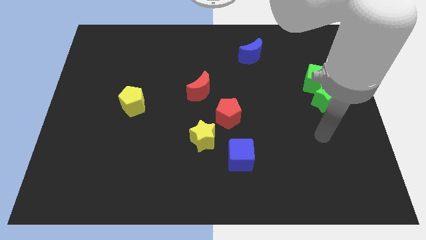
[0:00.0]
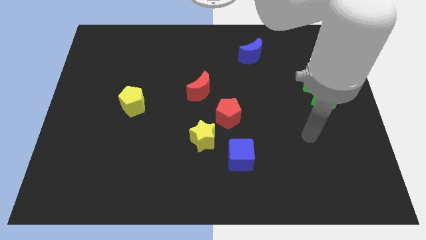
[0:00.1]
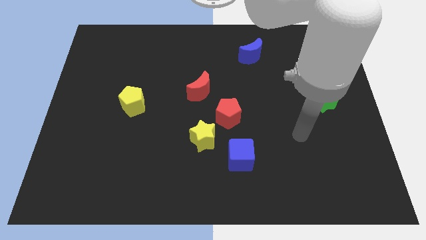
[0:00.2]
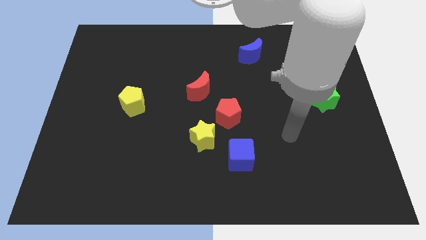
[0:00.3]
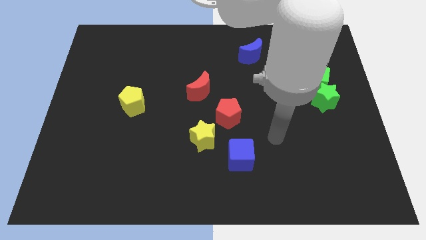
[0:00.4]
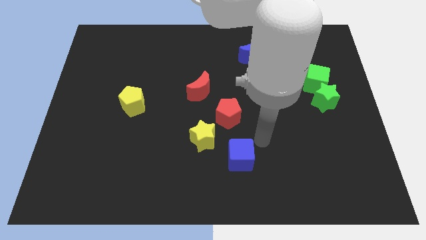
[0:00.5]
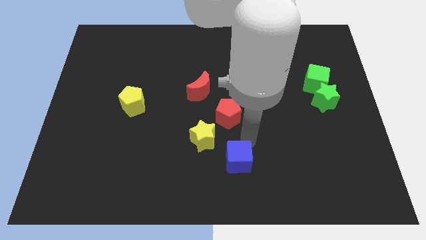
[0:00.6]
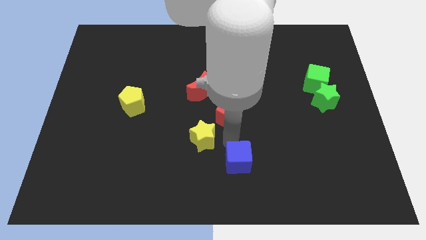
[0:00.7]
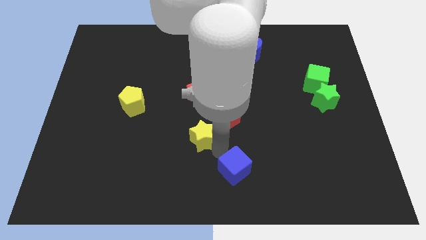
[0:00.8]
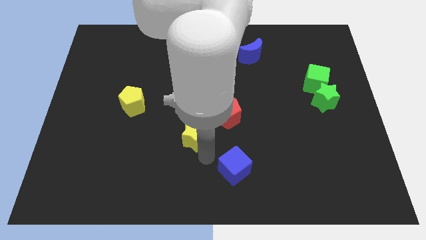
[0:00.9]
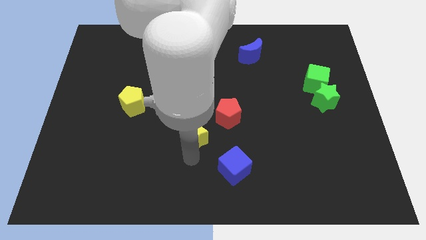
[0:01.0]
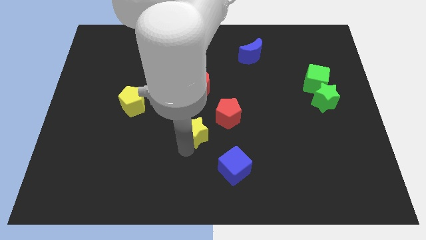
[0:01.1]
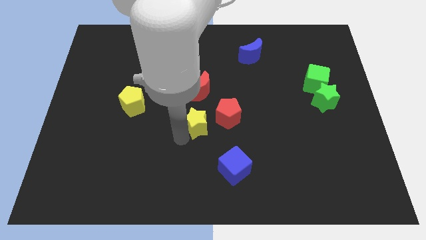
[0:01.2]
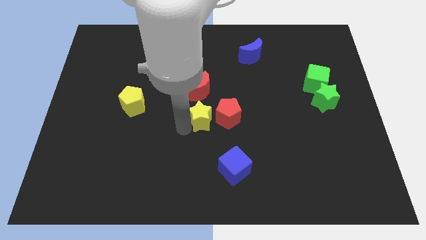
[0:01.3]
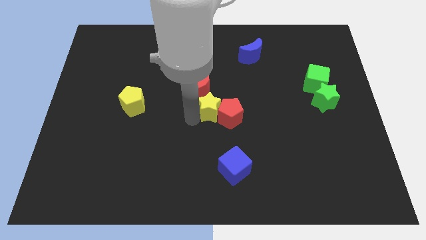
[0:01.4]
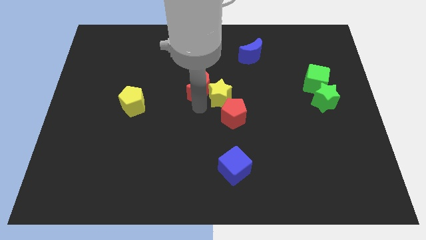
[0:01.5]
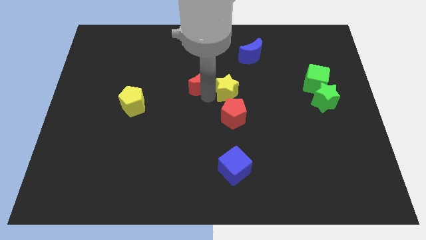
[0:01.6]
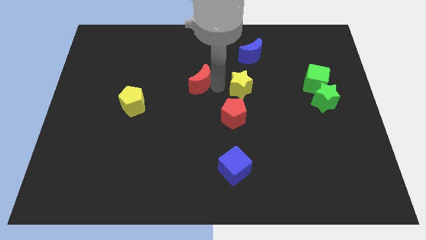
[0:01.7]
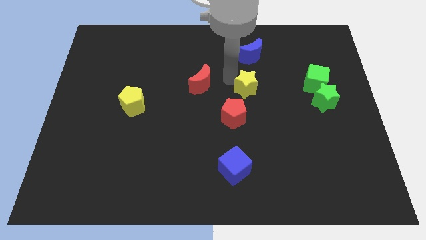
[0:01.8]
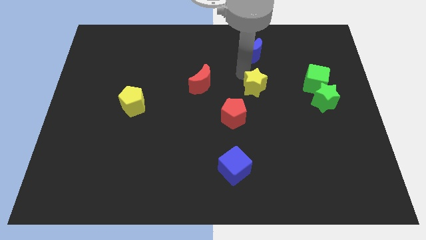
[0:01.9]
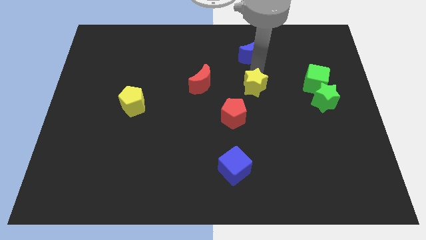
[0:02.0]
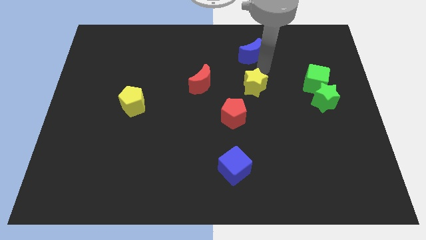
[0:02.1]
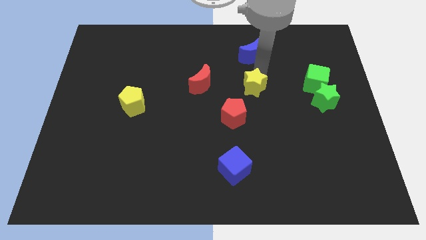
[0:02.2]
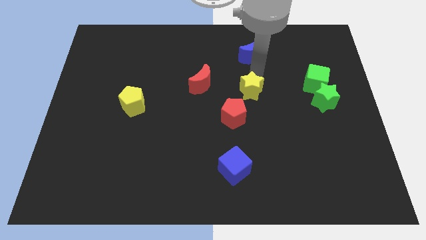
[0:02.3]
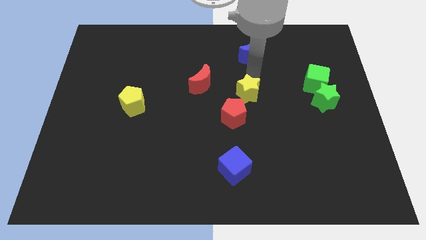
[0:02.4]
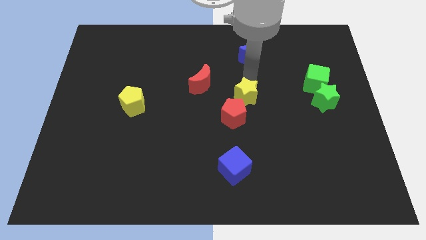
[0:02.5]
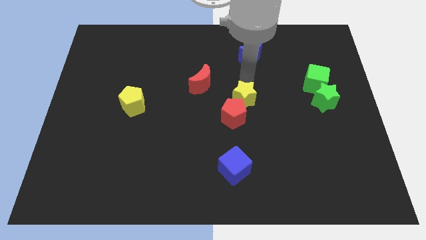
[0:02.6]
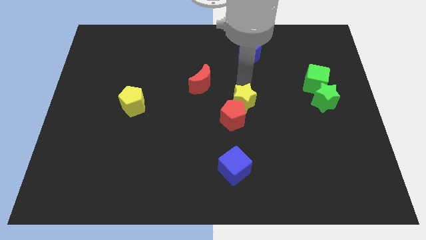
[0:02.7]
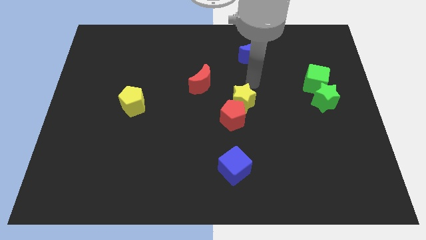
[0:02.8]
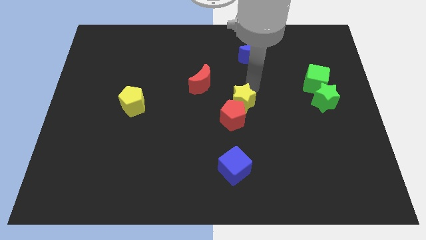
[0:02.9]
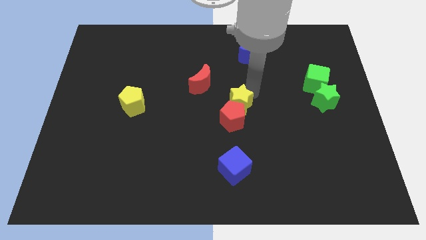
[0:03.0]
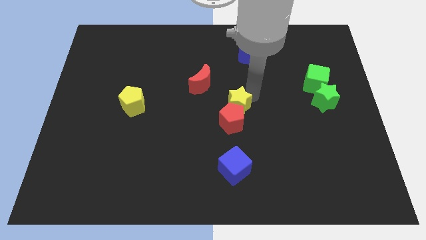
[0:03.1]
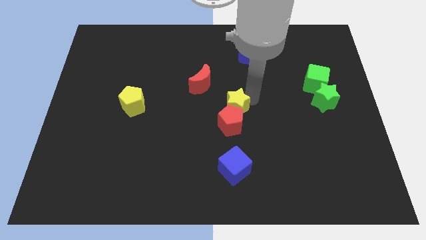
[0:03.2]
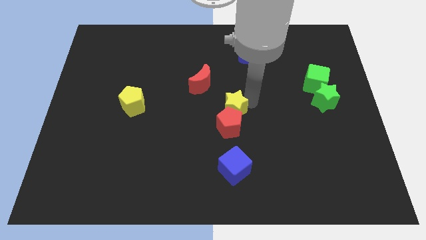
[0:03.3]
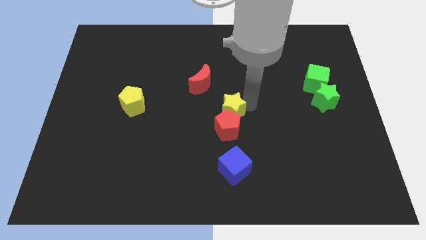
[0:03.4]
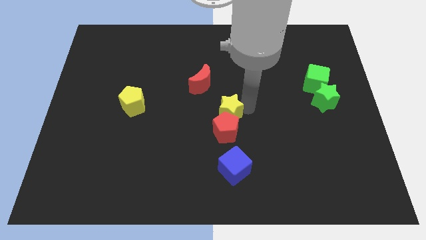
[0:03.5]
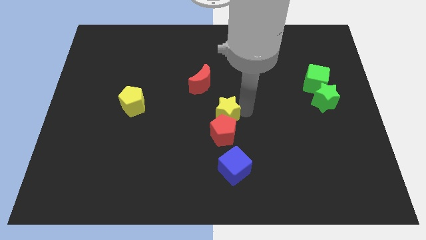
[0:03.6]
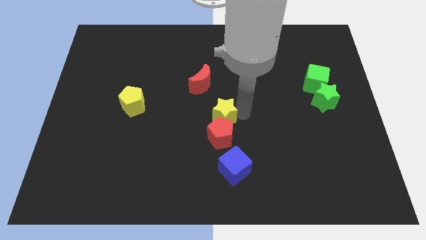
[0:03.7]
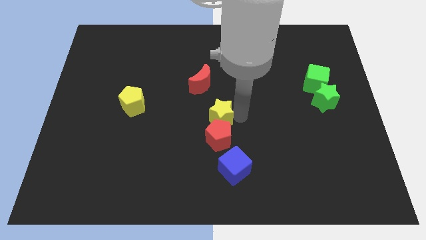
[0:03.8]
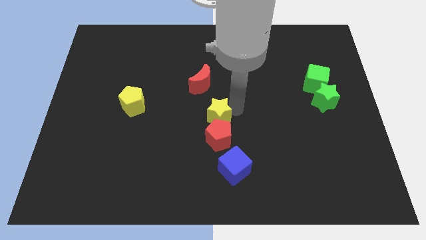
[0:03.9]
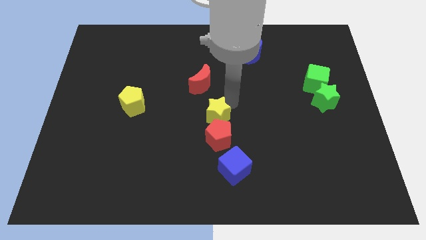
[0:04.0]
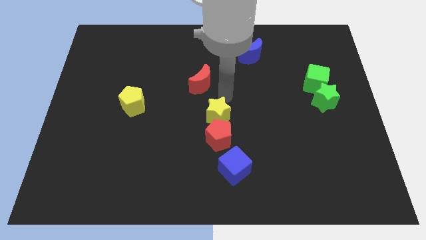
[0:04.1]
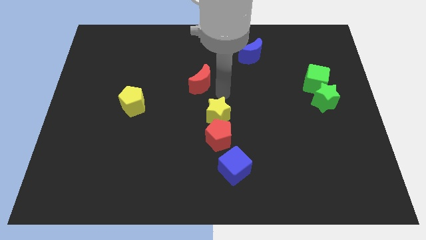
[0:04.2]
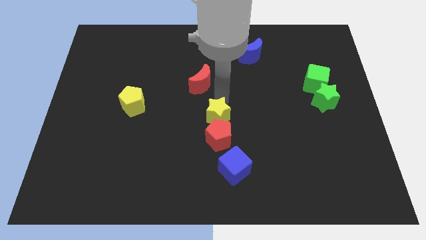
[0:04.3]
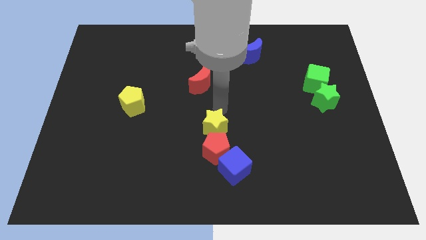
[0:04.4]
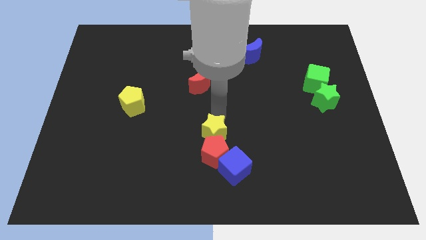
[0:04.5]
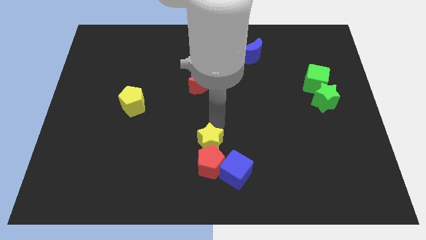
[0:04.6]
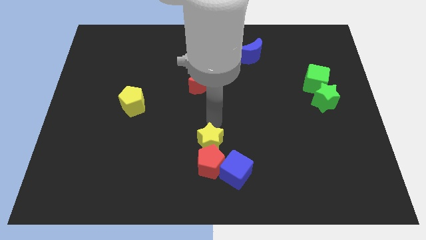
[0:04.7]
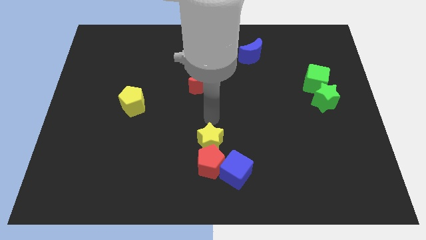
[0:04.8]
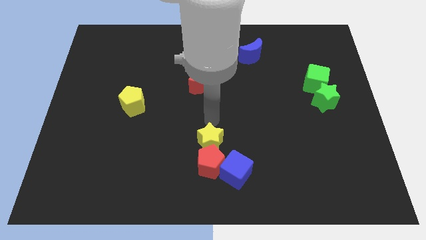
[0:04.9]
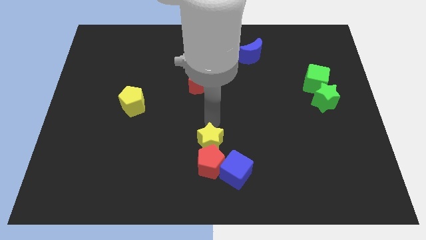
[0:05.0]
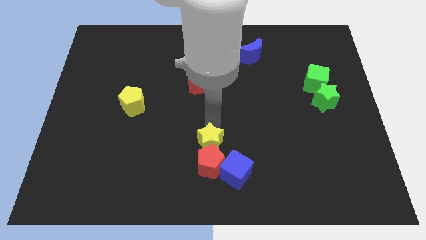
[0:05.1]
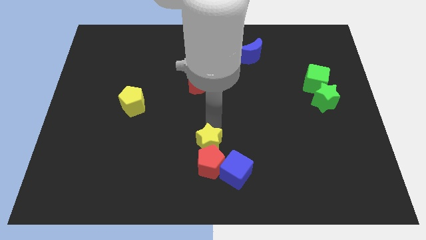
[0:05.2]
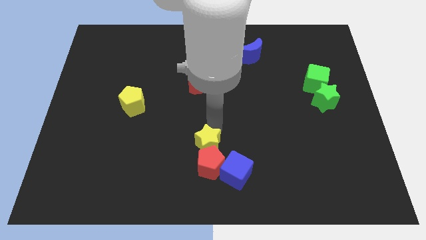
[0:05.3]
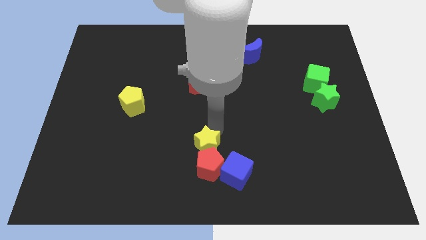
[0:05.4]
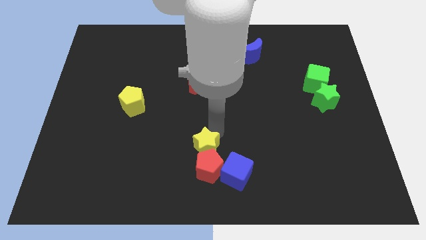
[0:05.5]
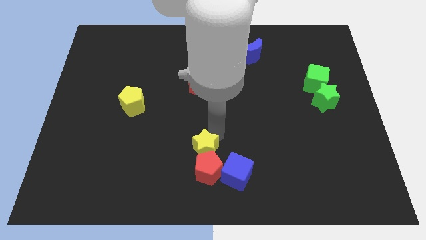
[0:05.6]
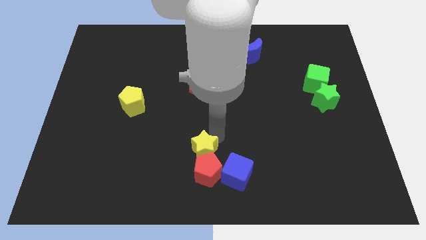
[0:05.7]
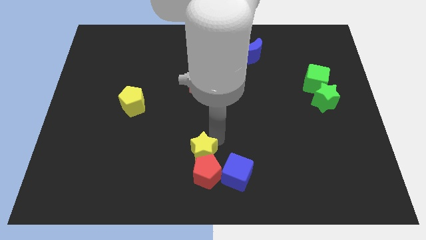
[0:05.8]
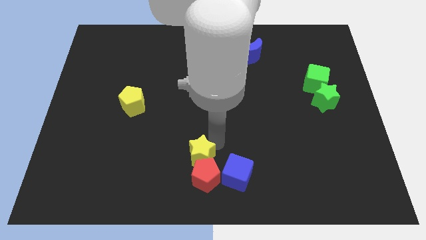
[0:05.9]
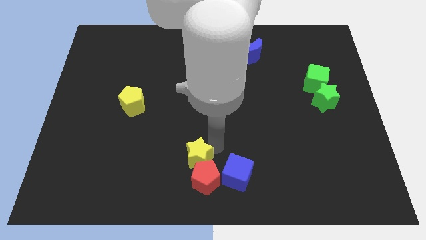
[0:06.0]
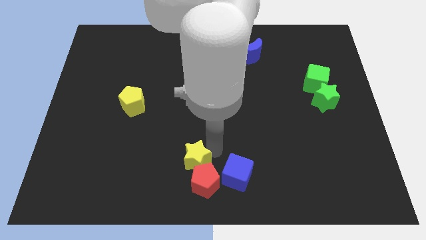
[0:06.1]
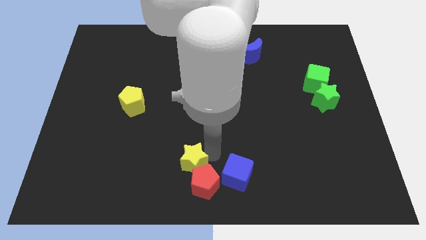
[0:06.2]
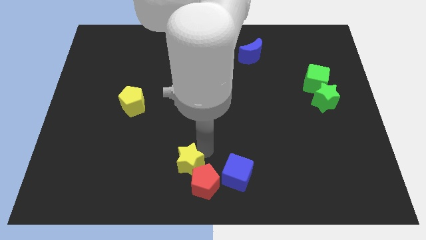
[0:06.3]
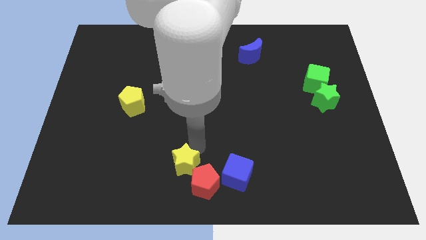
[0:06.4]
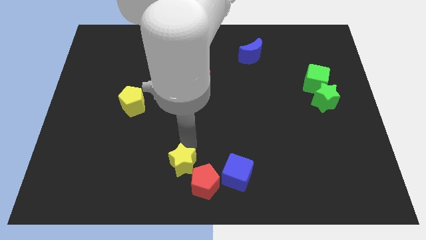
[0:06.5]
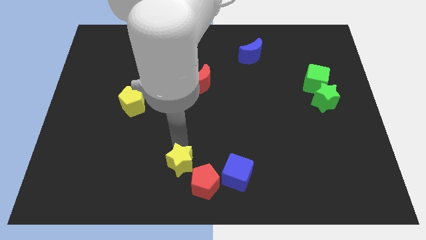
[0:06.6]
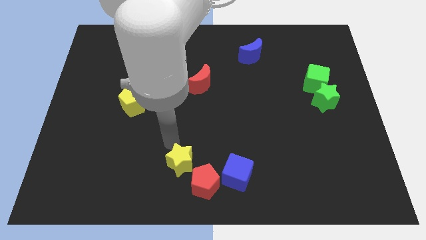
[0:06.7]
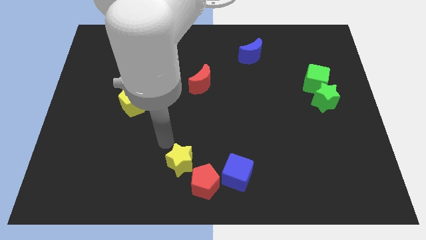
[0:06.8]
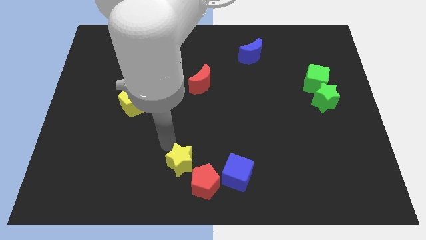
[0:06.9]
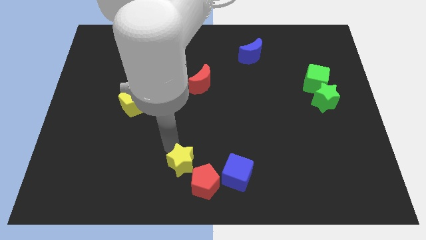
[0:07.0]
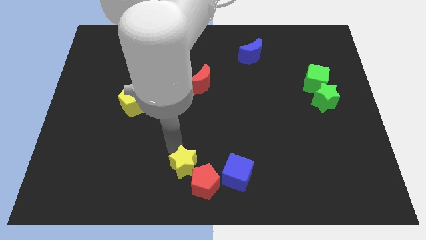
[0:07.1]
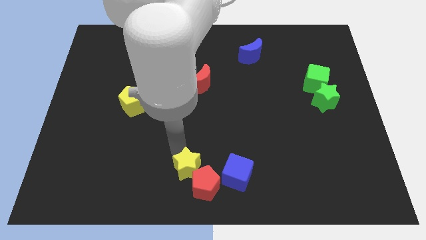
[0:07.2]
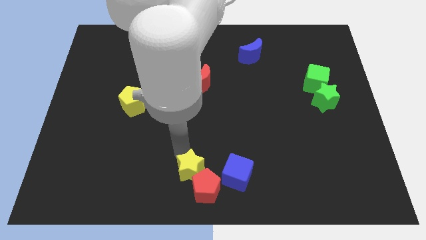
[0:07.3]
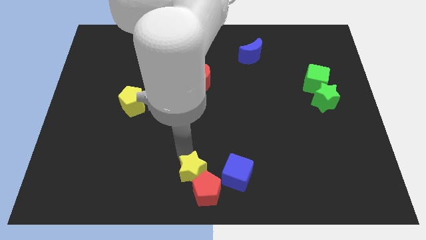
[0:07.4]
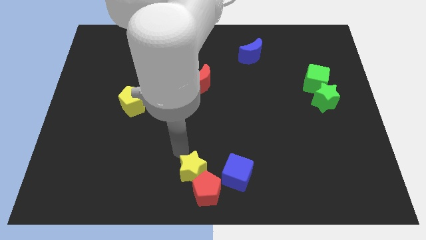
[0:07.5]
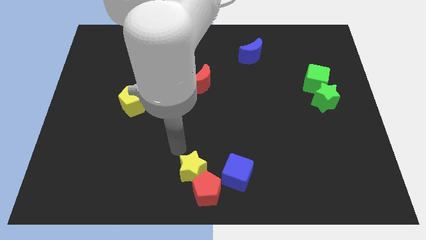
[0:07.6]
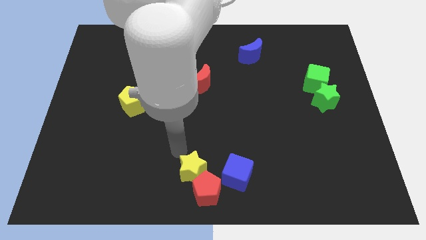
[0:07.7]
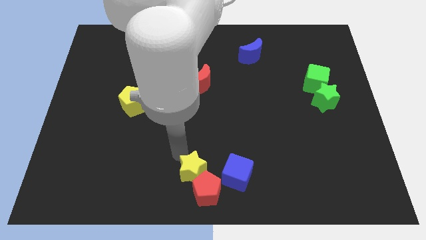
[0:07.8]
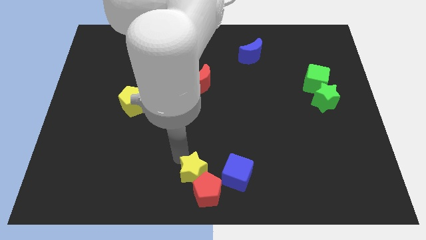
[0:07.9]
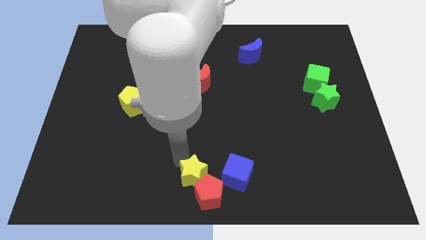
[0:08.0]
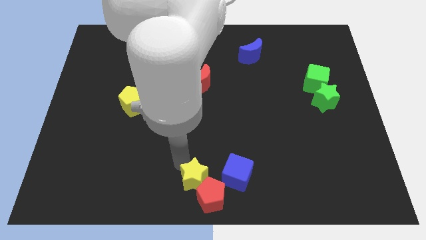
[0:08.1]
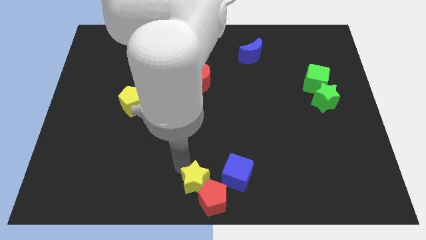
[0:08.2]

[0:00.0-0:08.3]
put the yellow star to the bottom left side of the blue cube
